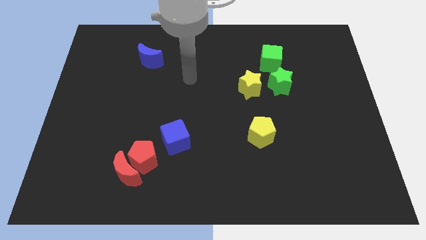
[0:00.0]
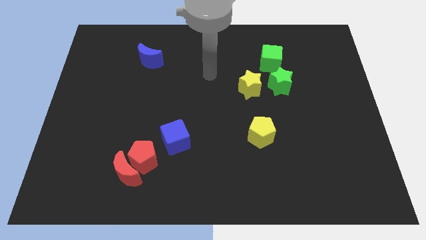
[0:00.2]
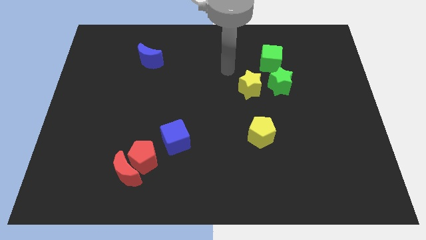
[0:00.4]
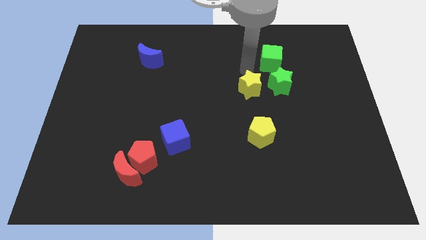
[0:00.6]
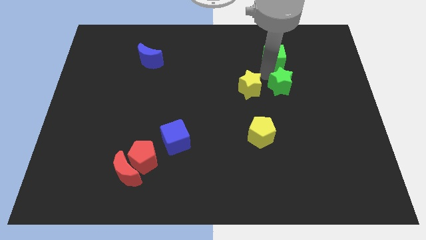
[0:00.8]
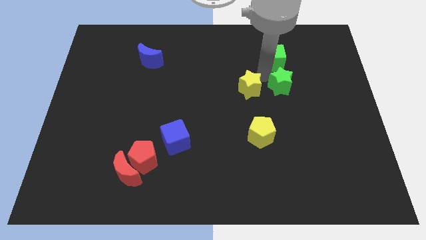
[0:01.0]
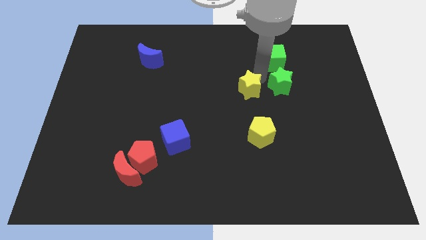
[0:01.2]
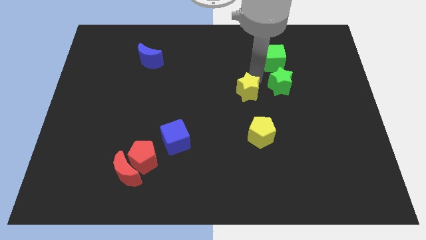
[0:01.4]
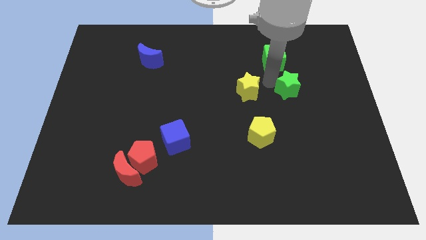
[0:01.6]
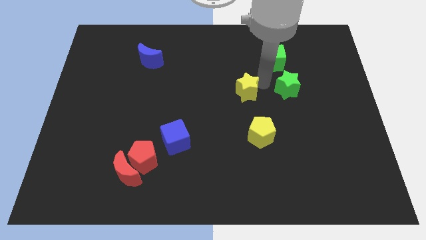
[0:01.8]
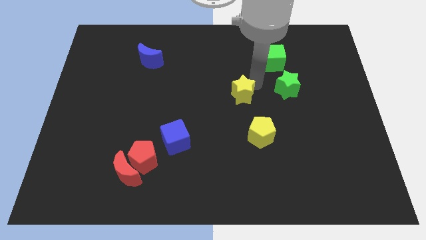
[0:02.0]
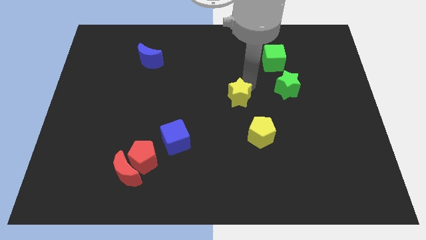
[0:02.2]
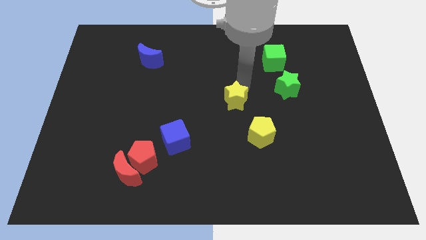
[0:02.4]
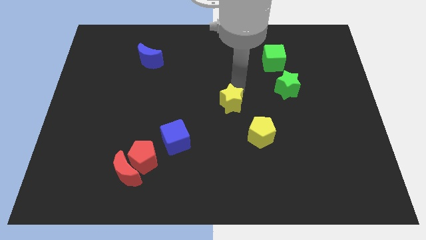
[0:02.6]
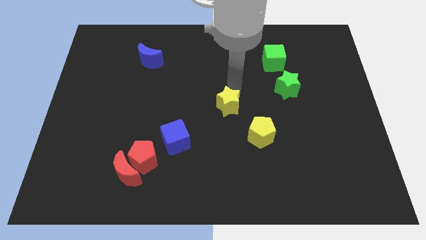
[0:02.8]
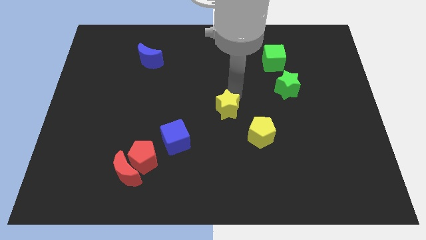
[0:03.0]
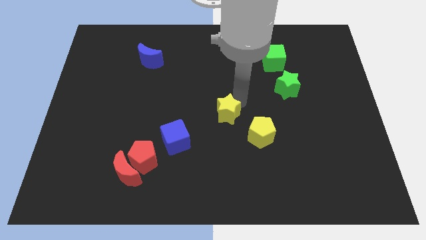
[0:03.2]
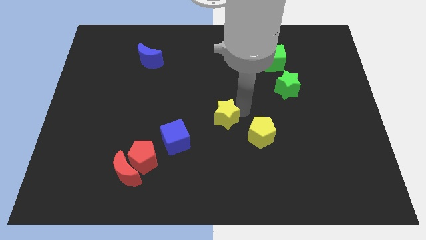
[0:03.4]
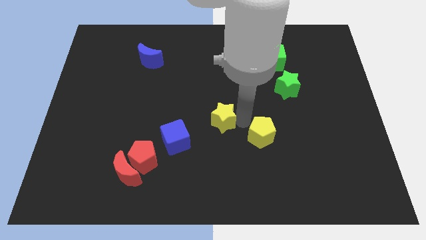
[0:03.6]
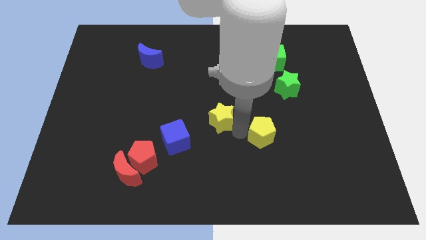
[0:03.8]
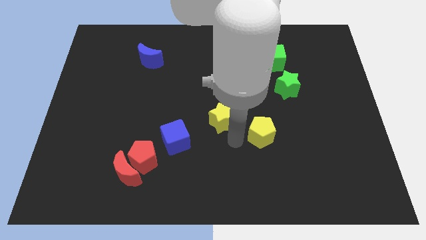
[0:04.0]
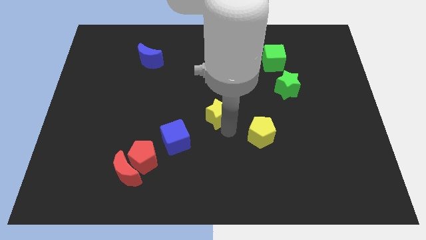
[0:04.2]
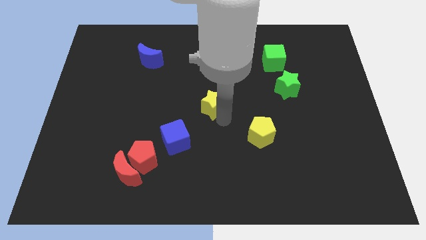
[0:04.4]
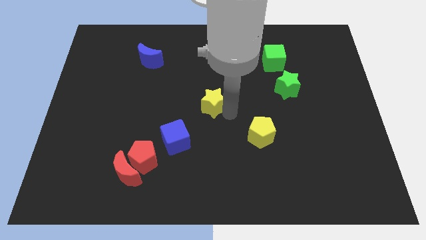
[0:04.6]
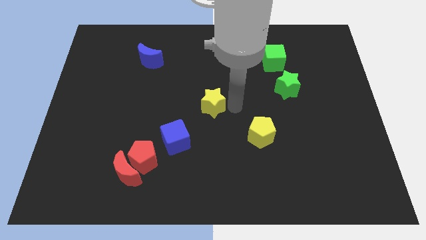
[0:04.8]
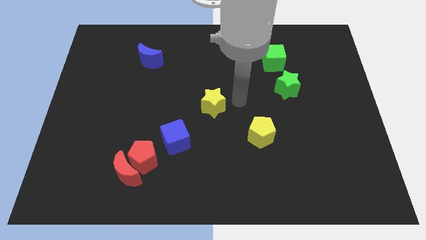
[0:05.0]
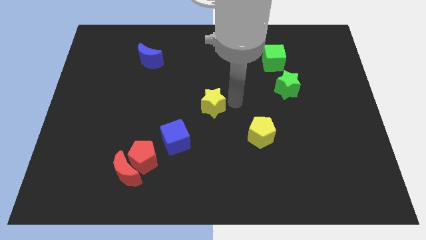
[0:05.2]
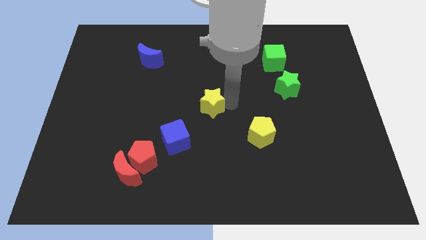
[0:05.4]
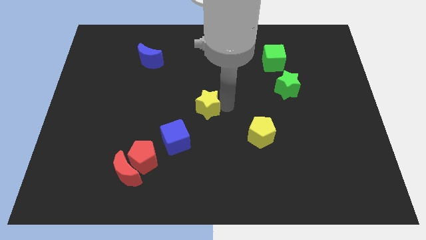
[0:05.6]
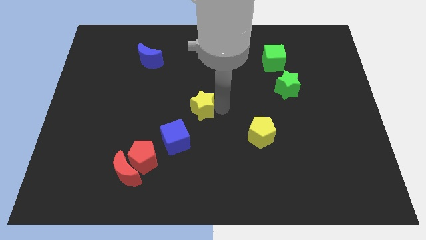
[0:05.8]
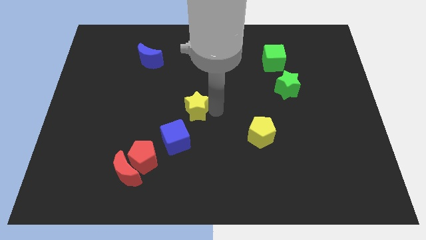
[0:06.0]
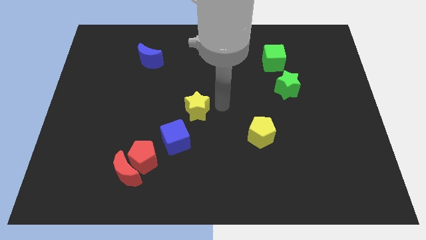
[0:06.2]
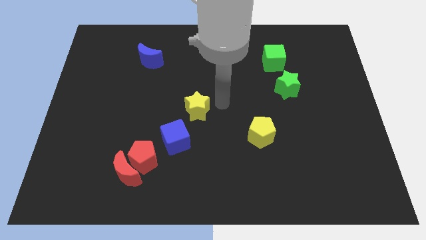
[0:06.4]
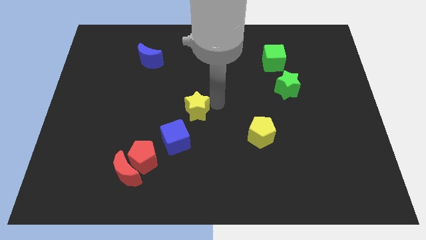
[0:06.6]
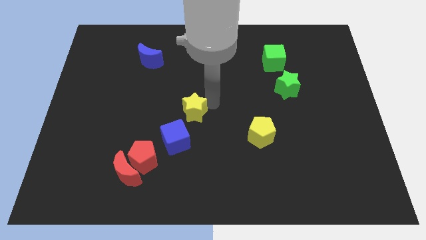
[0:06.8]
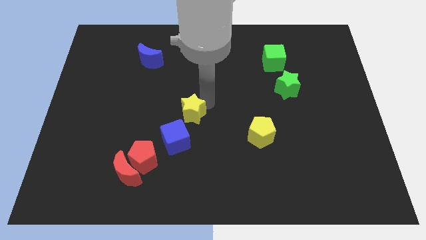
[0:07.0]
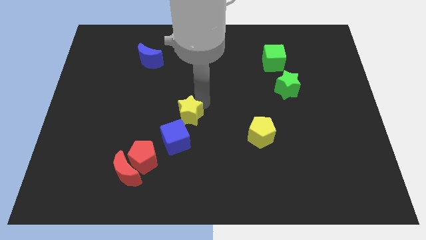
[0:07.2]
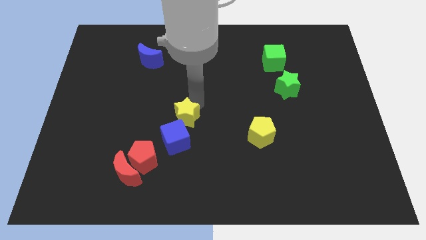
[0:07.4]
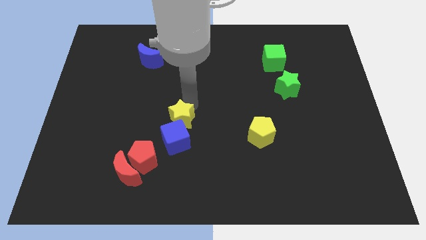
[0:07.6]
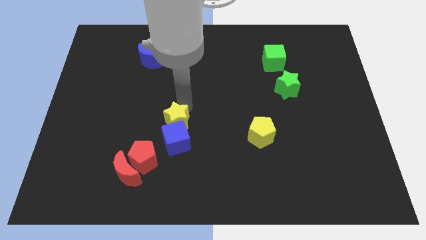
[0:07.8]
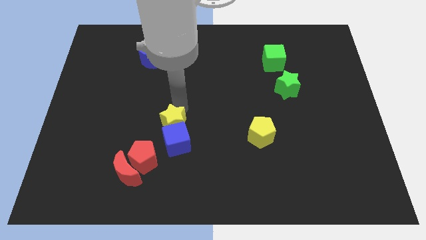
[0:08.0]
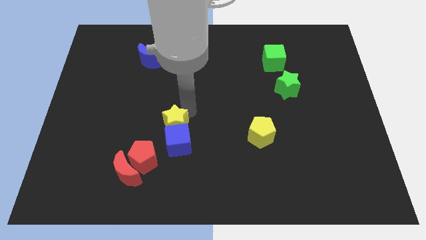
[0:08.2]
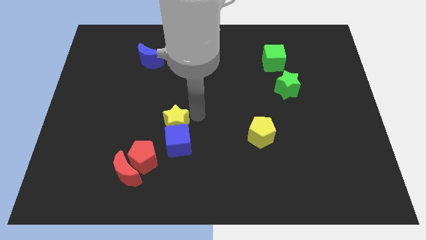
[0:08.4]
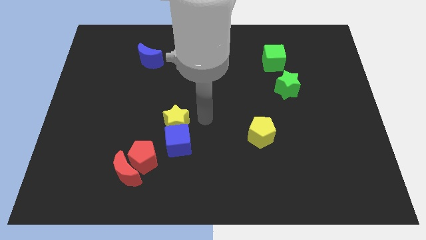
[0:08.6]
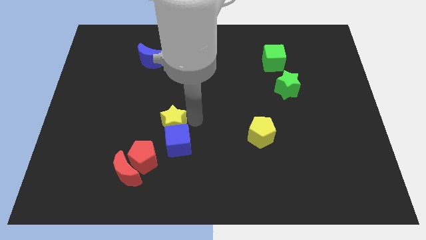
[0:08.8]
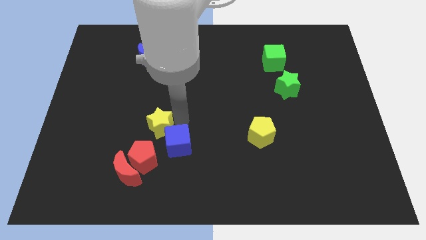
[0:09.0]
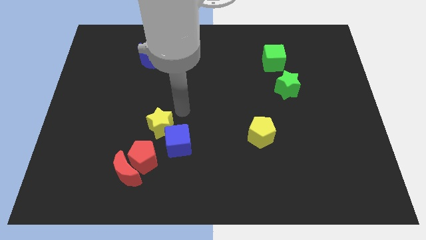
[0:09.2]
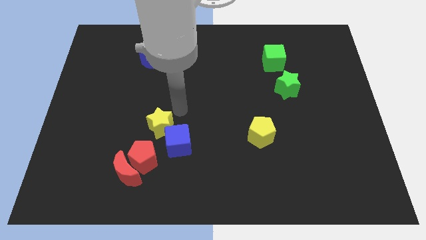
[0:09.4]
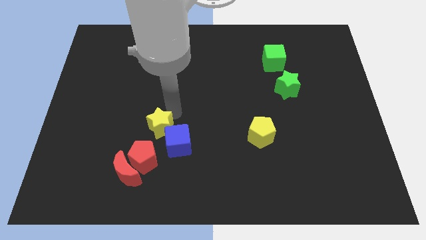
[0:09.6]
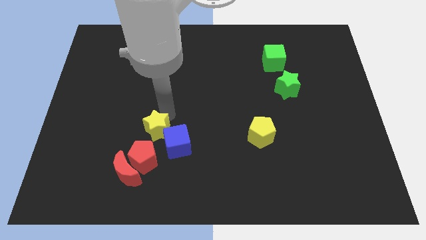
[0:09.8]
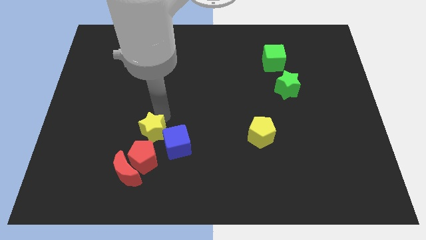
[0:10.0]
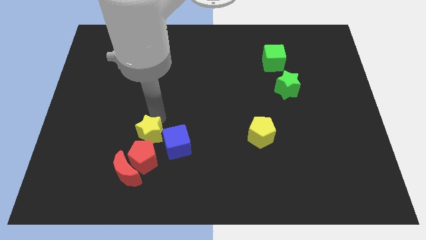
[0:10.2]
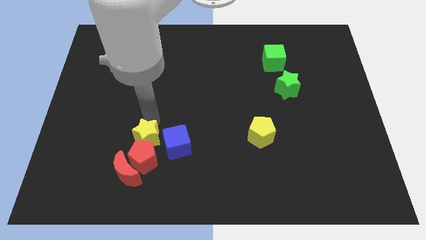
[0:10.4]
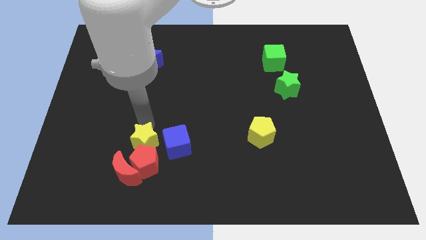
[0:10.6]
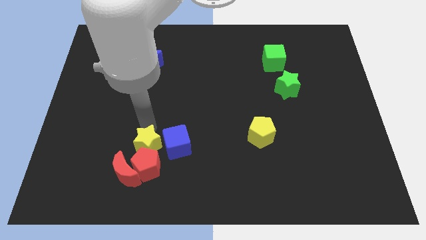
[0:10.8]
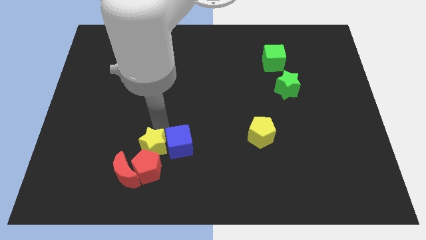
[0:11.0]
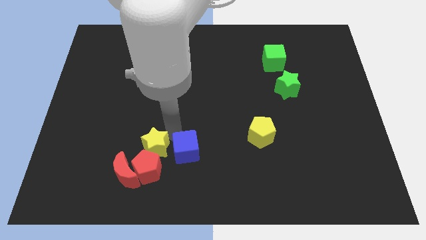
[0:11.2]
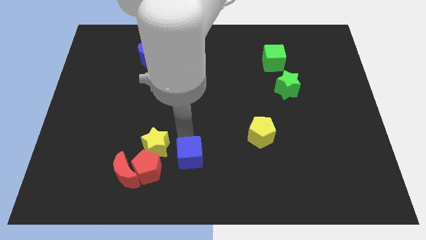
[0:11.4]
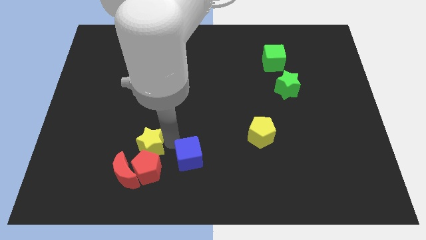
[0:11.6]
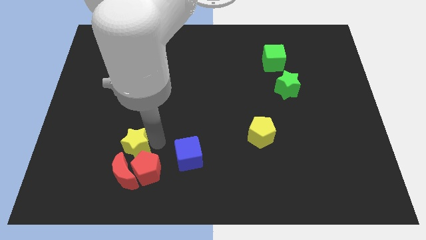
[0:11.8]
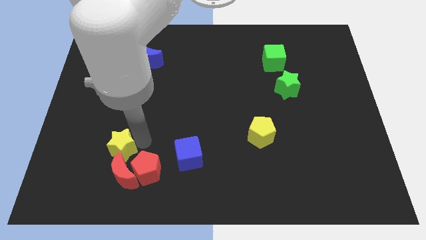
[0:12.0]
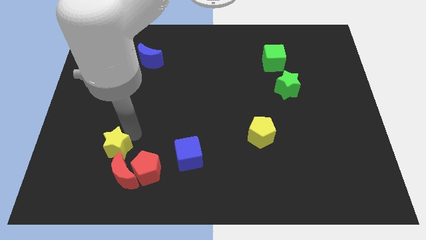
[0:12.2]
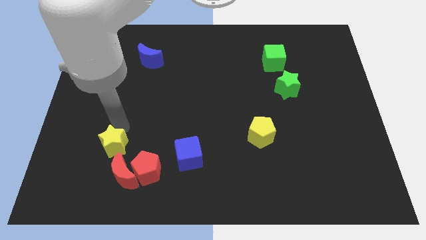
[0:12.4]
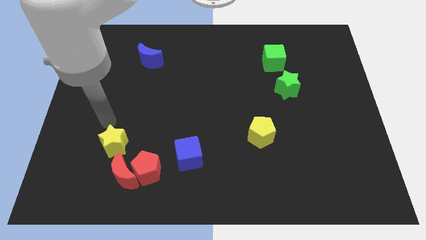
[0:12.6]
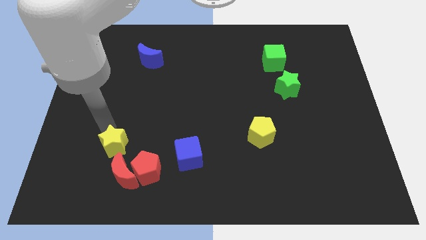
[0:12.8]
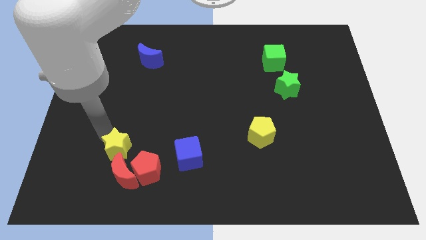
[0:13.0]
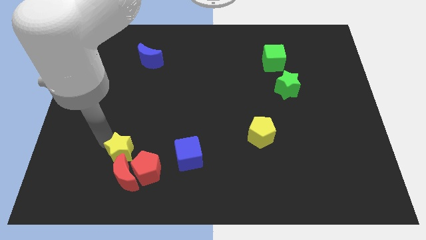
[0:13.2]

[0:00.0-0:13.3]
slide the yellow star towards the red moon
